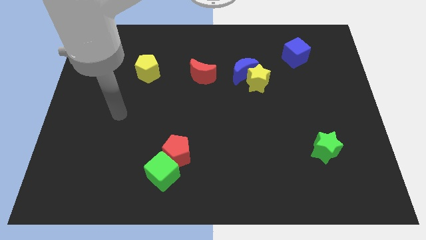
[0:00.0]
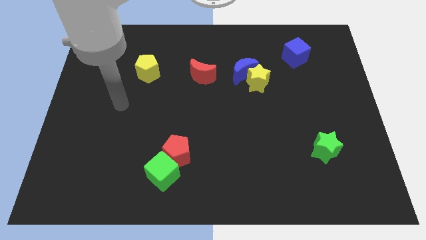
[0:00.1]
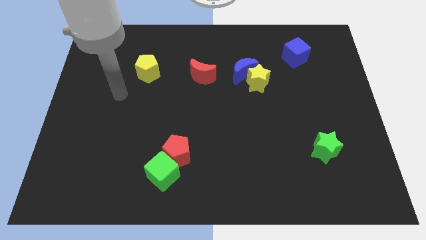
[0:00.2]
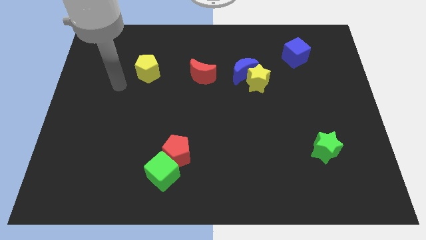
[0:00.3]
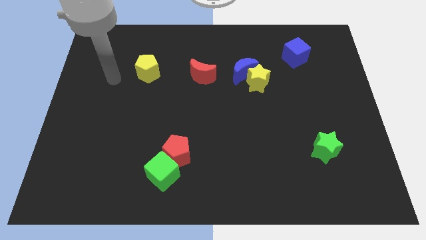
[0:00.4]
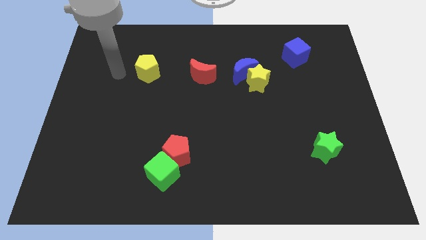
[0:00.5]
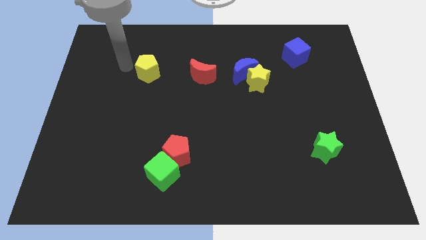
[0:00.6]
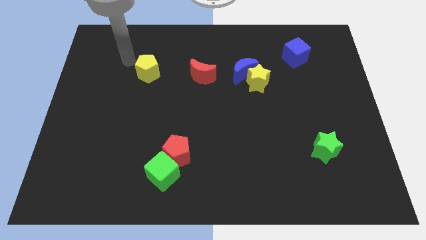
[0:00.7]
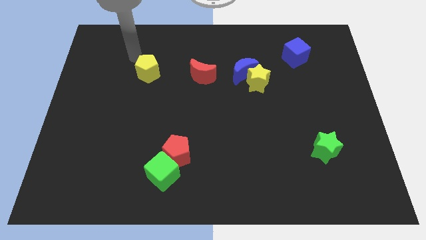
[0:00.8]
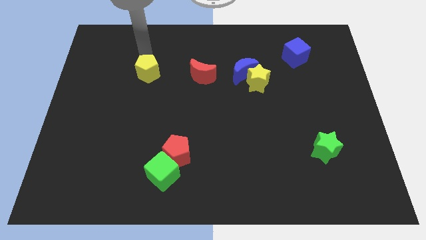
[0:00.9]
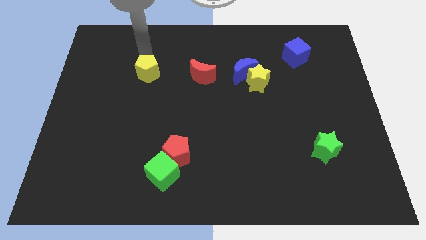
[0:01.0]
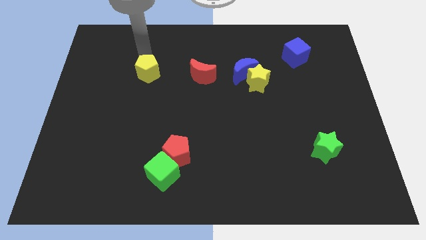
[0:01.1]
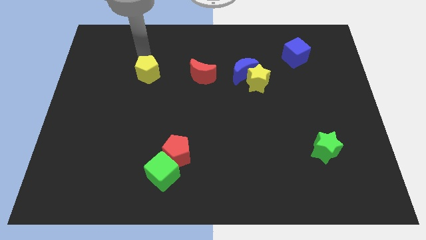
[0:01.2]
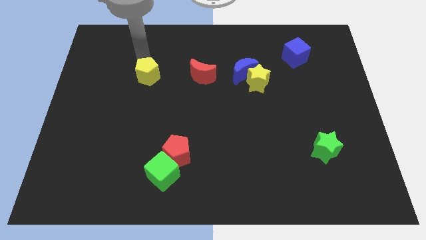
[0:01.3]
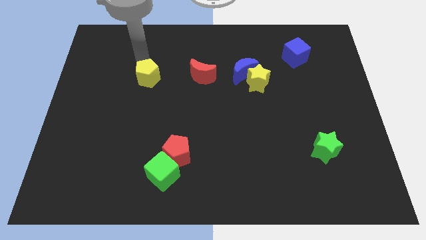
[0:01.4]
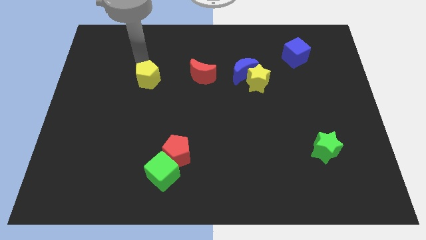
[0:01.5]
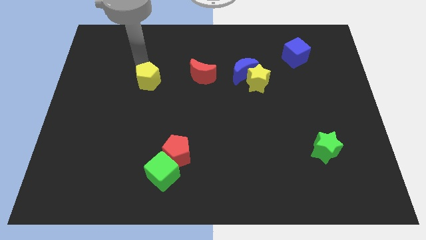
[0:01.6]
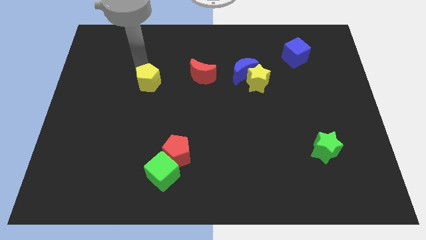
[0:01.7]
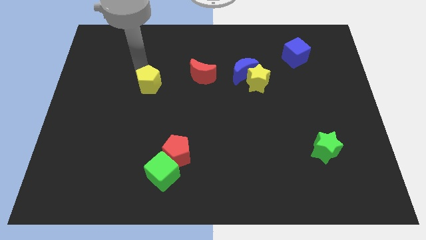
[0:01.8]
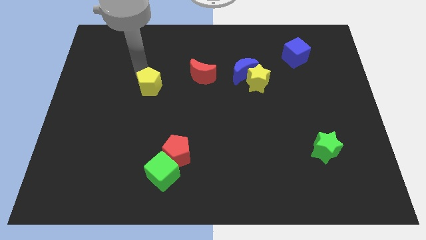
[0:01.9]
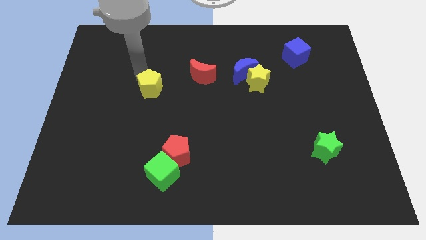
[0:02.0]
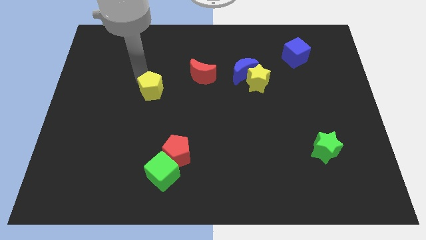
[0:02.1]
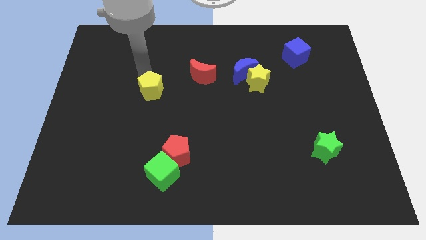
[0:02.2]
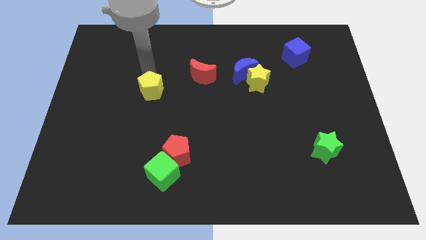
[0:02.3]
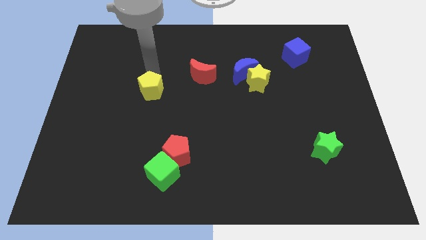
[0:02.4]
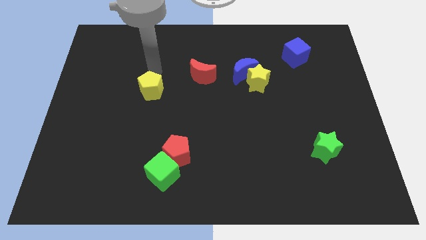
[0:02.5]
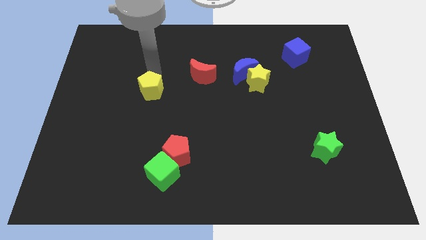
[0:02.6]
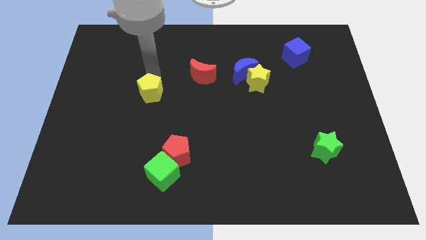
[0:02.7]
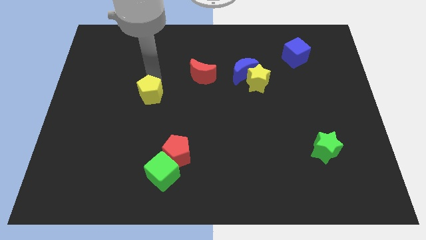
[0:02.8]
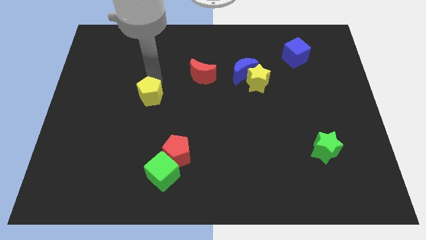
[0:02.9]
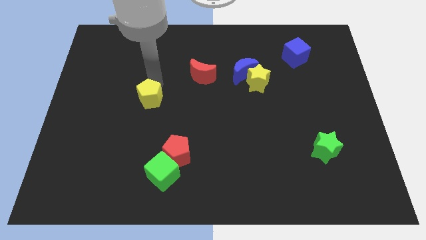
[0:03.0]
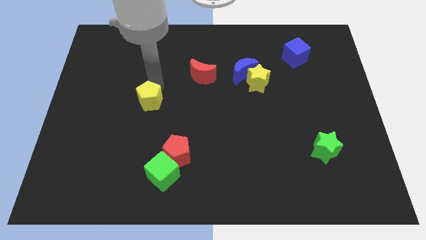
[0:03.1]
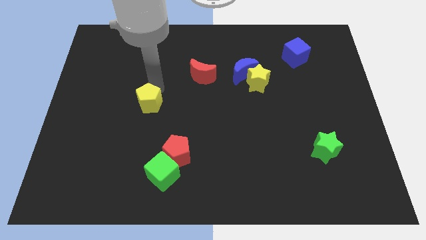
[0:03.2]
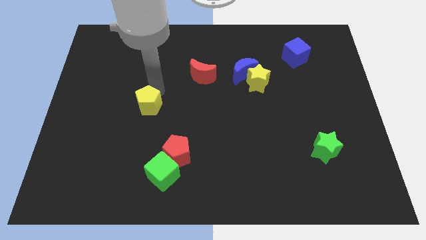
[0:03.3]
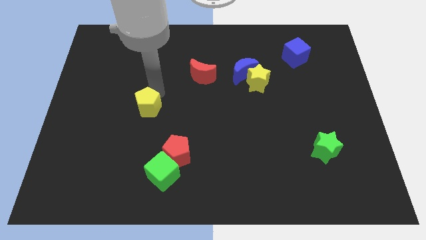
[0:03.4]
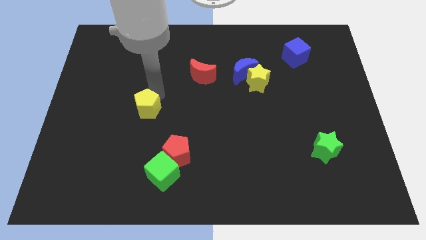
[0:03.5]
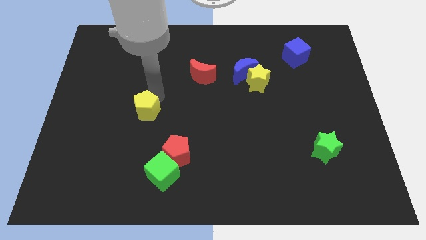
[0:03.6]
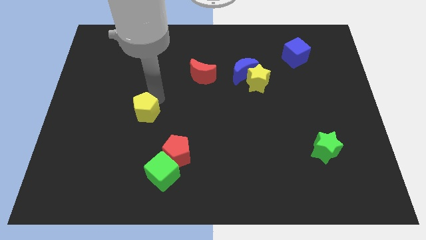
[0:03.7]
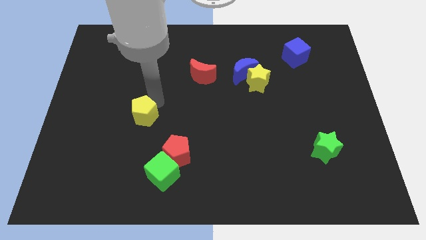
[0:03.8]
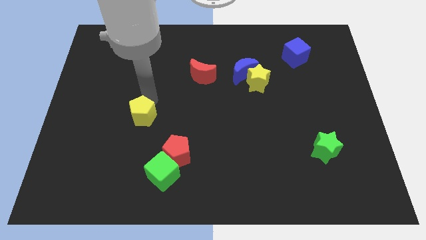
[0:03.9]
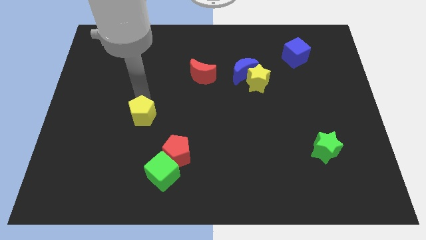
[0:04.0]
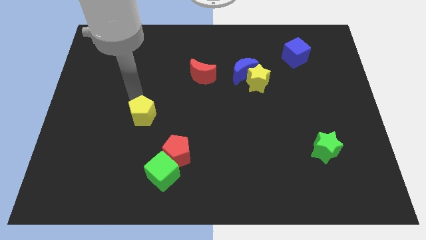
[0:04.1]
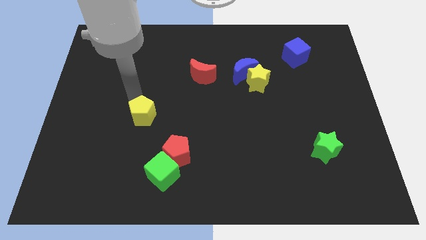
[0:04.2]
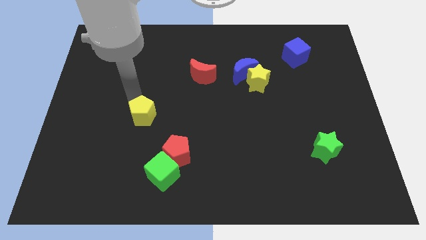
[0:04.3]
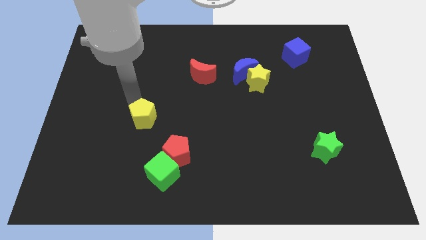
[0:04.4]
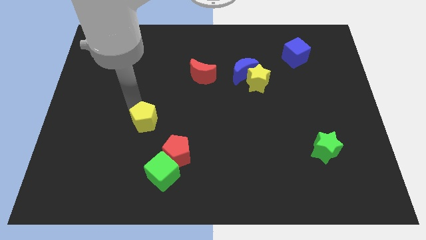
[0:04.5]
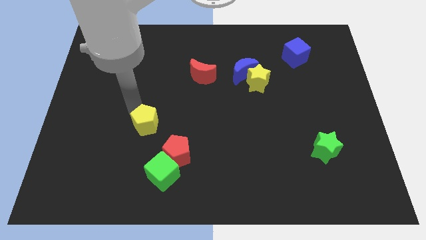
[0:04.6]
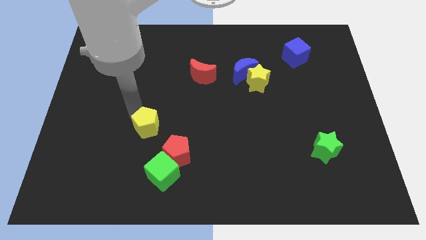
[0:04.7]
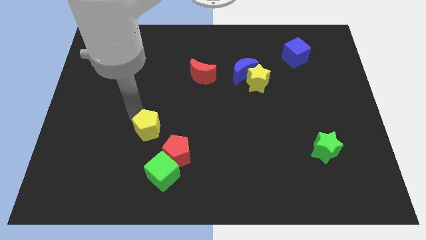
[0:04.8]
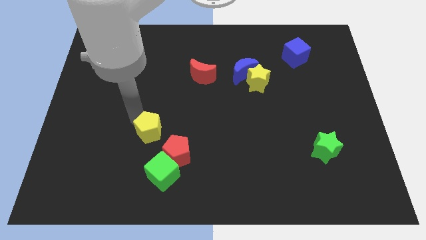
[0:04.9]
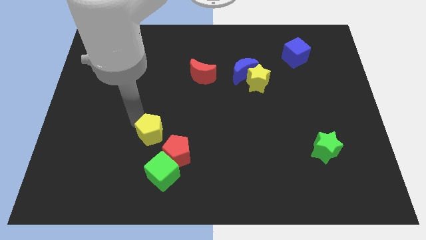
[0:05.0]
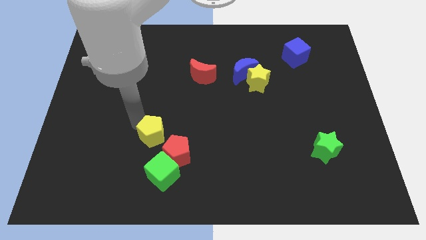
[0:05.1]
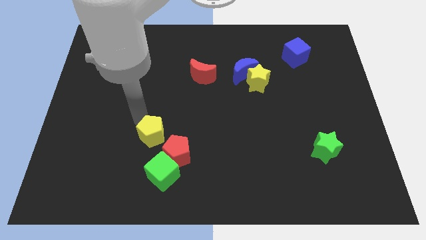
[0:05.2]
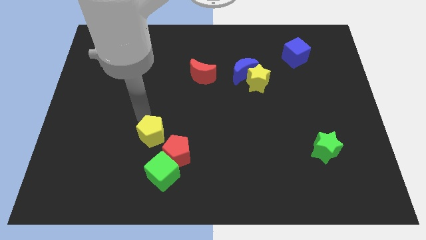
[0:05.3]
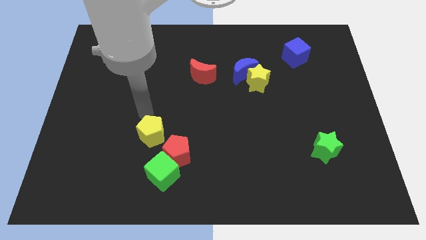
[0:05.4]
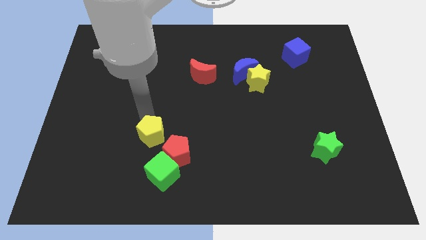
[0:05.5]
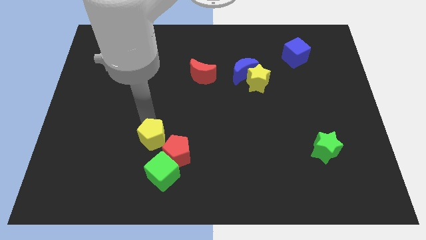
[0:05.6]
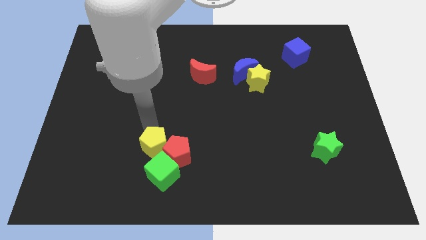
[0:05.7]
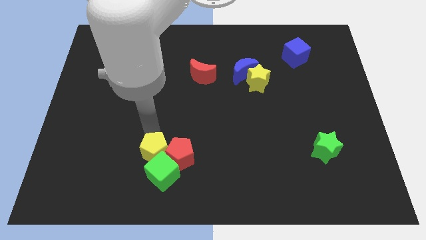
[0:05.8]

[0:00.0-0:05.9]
slide the yellow pentagon towards the green cube

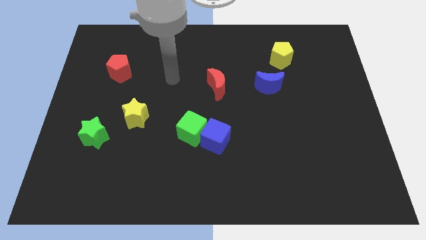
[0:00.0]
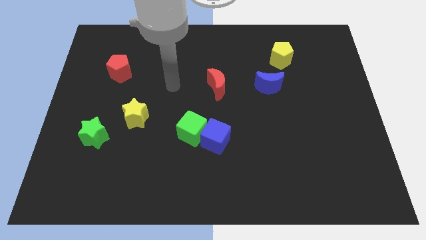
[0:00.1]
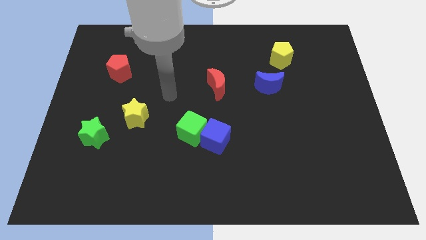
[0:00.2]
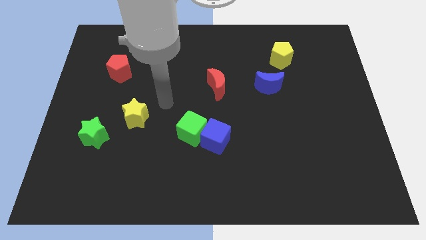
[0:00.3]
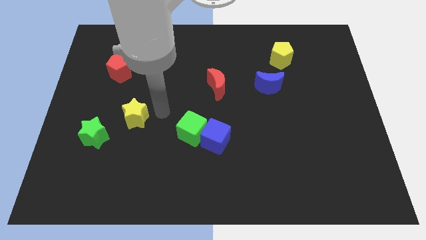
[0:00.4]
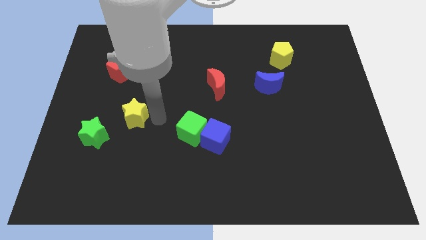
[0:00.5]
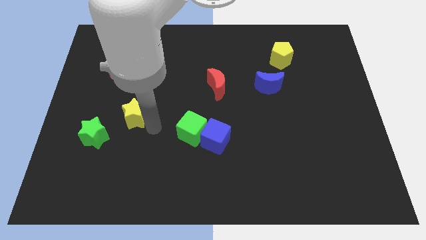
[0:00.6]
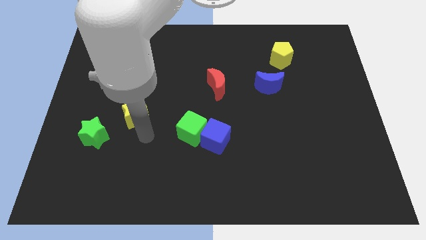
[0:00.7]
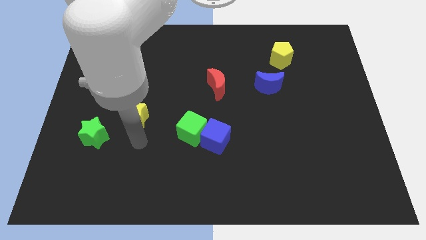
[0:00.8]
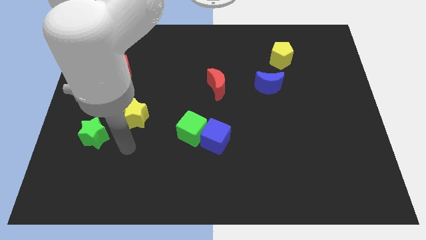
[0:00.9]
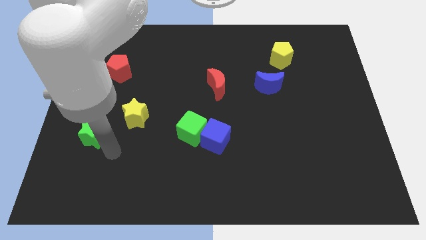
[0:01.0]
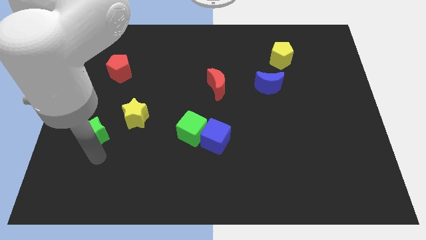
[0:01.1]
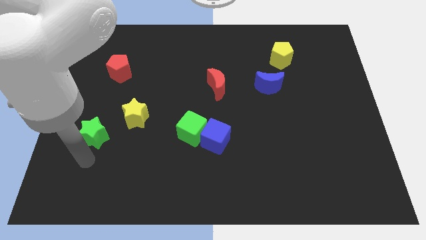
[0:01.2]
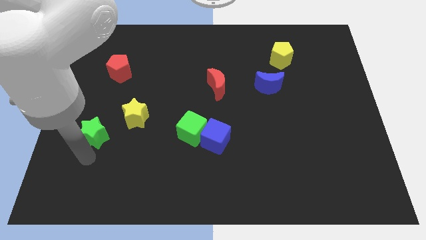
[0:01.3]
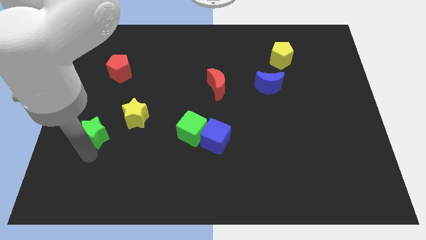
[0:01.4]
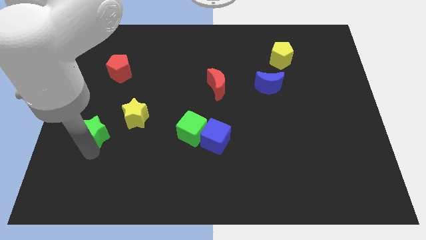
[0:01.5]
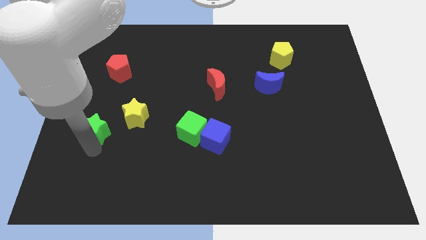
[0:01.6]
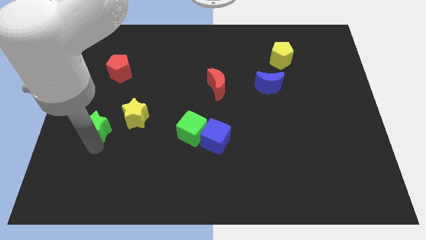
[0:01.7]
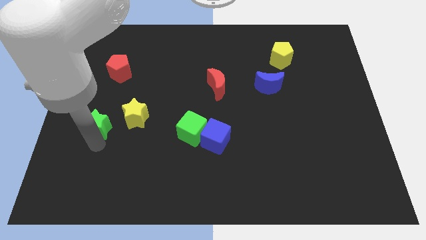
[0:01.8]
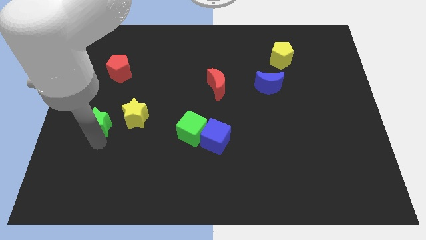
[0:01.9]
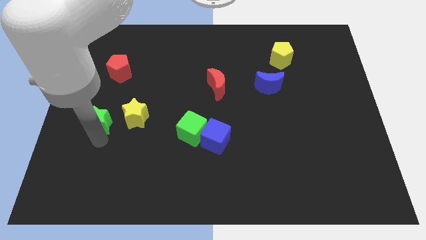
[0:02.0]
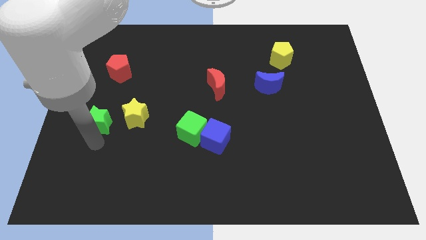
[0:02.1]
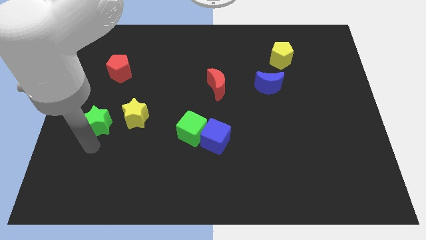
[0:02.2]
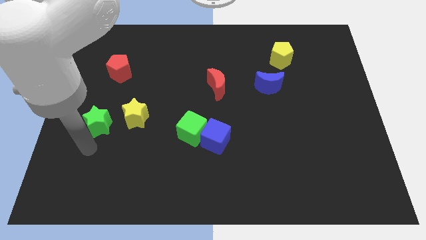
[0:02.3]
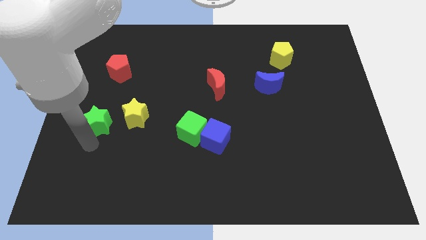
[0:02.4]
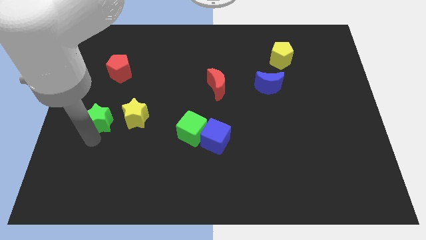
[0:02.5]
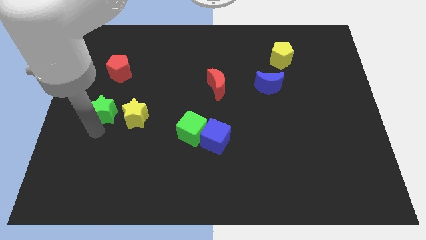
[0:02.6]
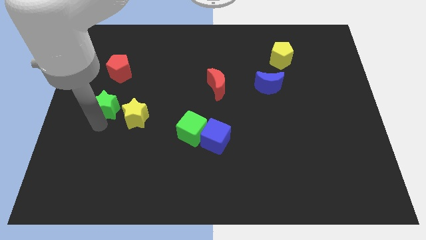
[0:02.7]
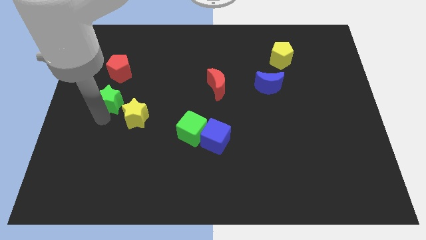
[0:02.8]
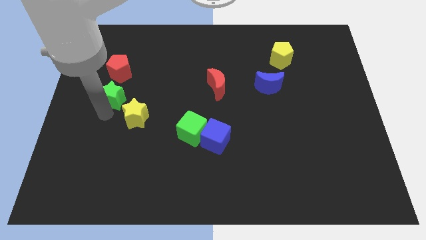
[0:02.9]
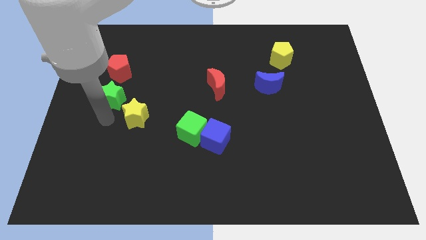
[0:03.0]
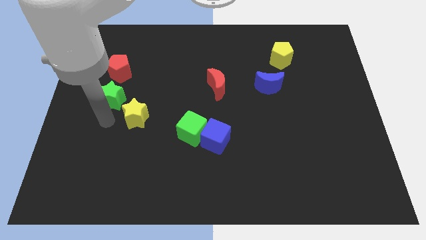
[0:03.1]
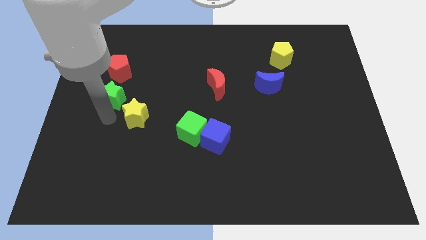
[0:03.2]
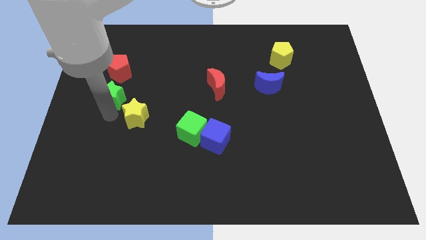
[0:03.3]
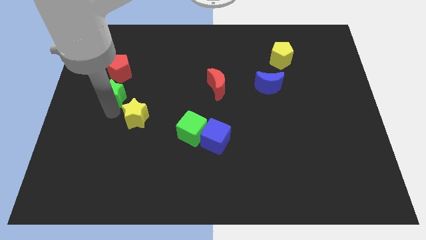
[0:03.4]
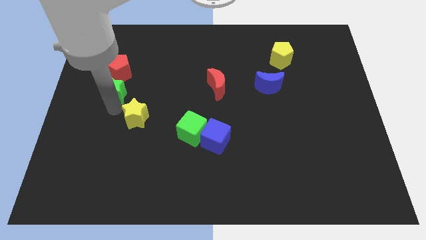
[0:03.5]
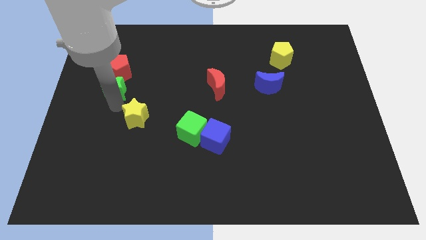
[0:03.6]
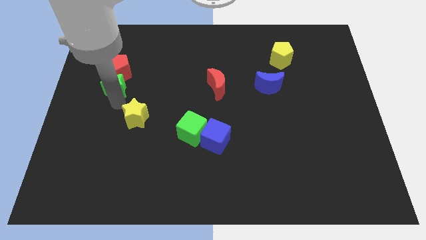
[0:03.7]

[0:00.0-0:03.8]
move the green star next to the red pentagon
